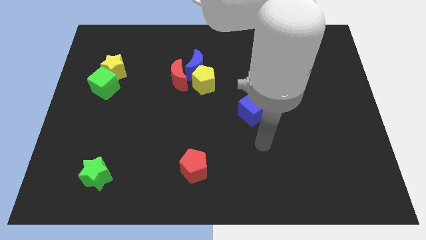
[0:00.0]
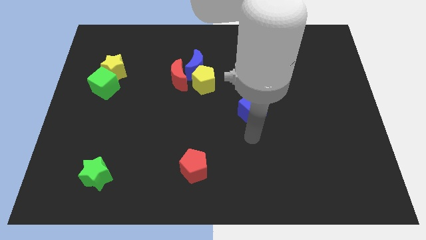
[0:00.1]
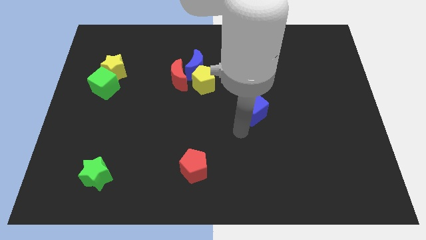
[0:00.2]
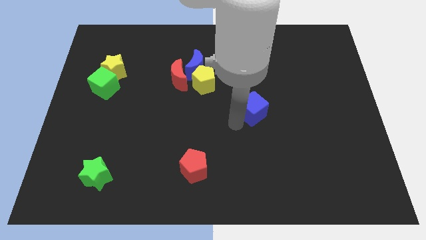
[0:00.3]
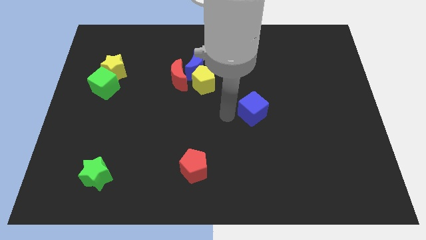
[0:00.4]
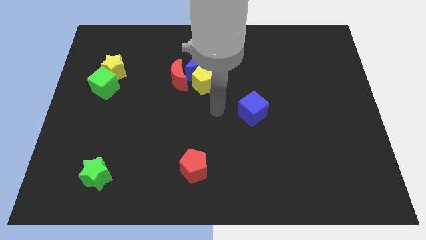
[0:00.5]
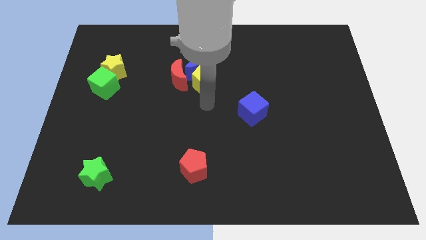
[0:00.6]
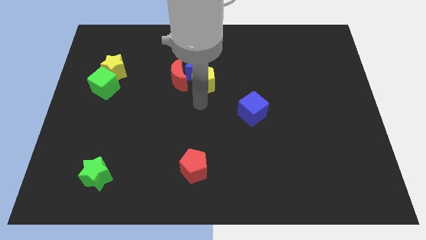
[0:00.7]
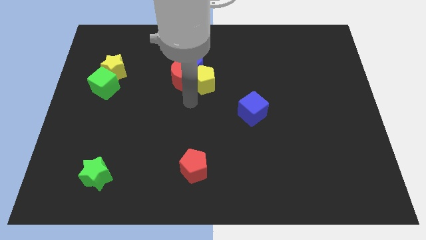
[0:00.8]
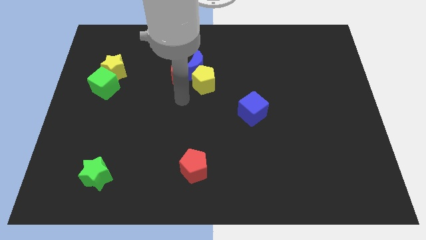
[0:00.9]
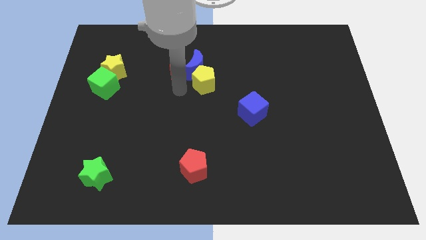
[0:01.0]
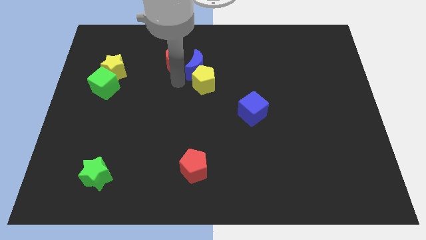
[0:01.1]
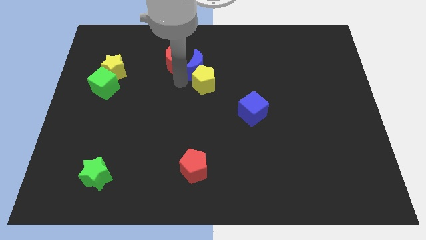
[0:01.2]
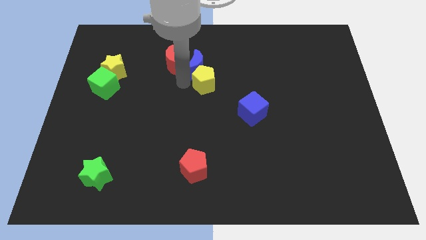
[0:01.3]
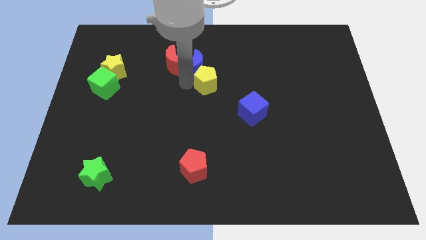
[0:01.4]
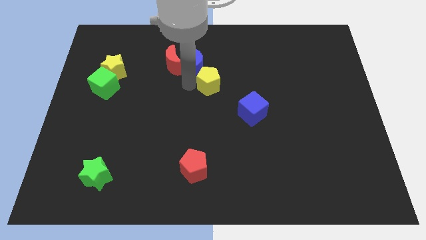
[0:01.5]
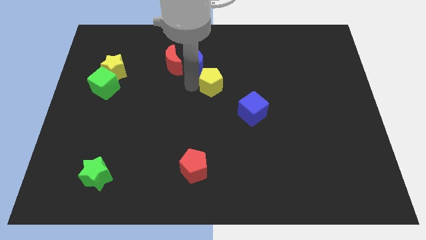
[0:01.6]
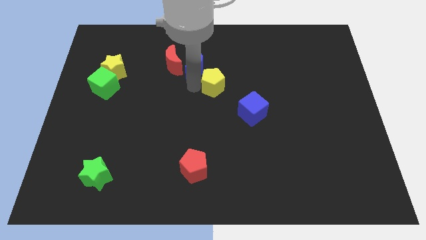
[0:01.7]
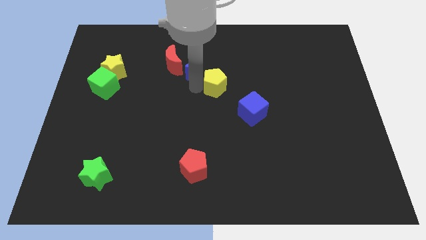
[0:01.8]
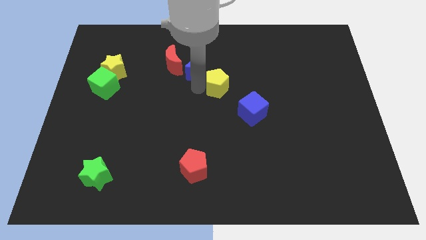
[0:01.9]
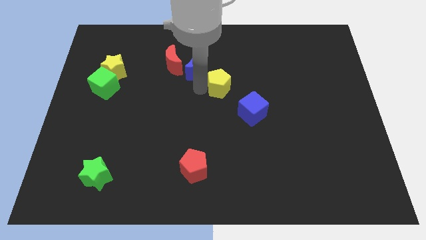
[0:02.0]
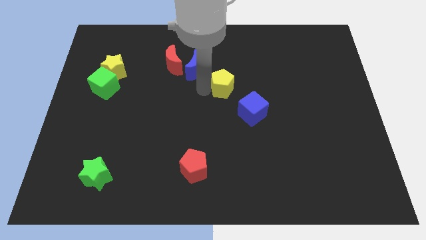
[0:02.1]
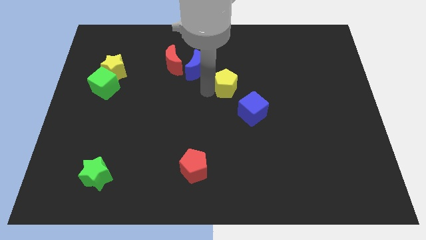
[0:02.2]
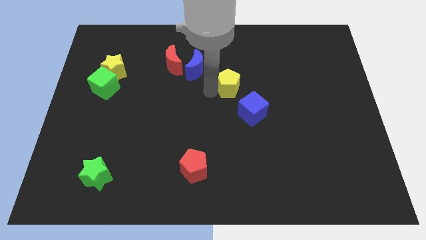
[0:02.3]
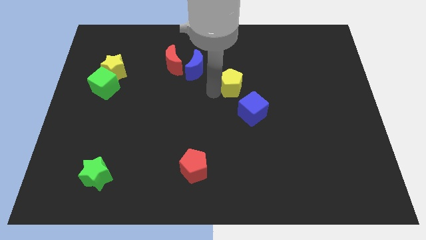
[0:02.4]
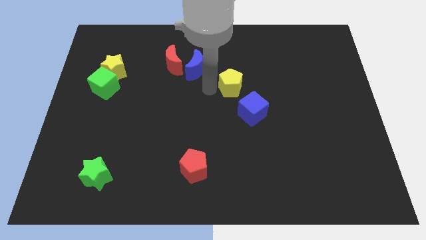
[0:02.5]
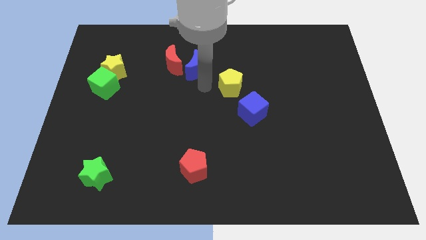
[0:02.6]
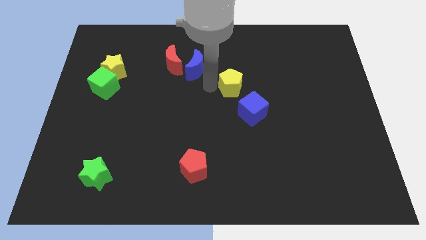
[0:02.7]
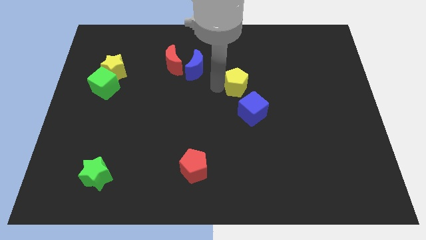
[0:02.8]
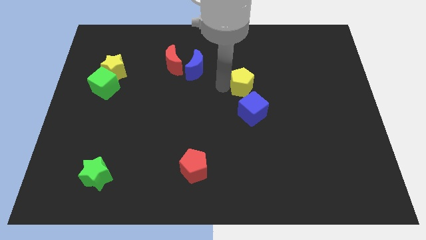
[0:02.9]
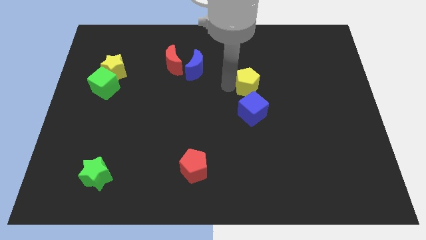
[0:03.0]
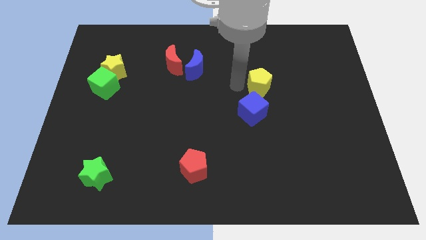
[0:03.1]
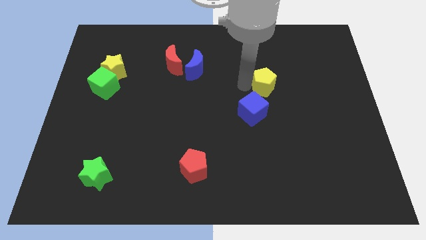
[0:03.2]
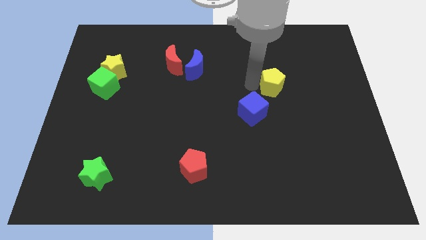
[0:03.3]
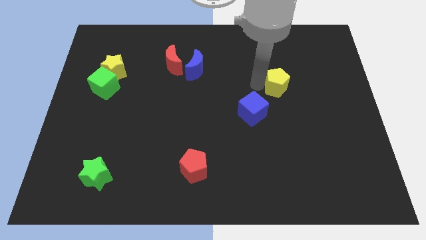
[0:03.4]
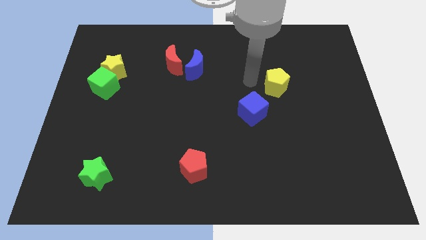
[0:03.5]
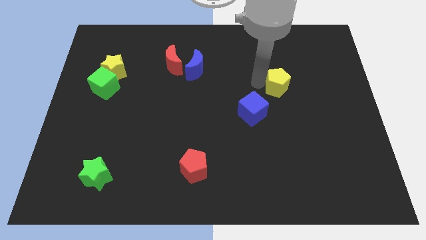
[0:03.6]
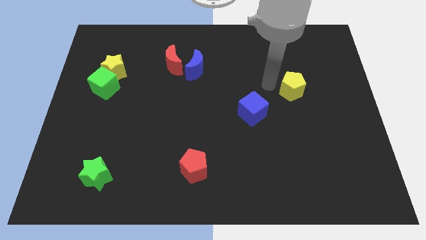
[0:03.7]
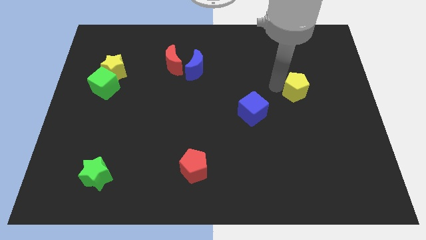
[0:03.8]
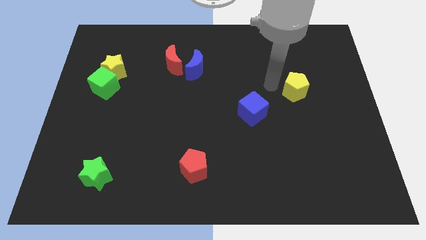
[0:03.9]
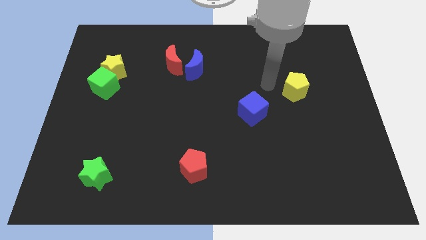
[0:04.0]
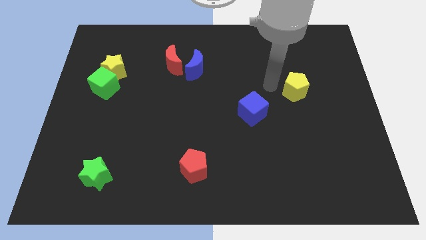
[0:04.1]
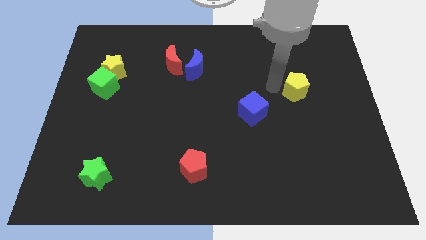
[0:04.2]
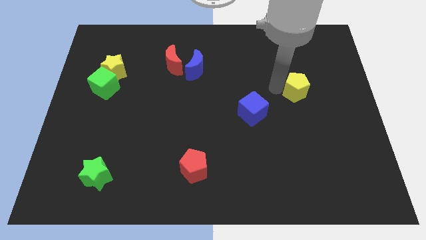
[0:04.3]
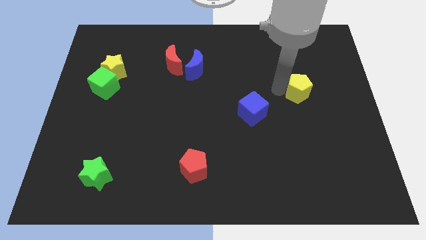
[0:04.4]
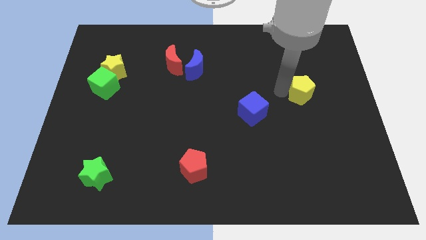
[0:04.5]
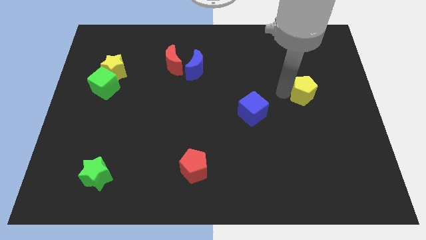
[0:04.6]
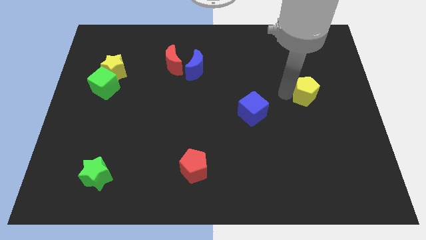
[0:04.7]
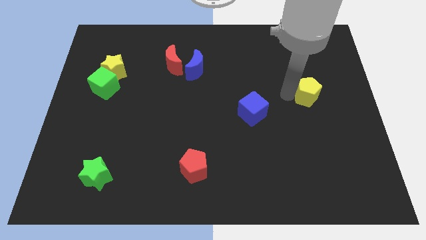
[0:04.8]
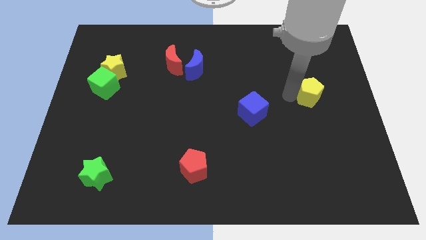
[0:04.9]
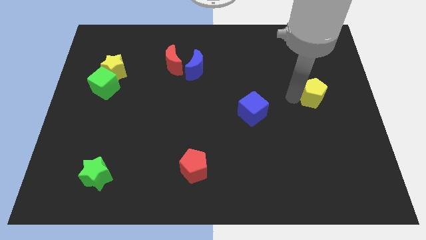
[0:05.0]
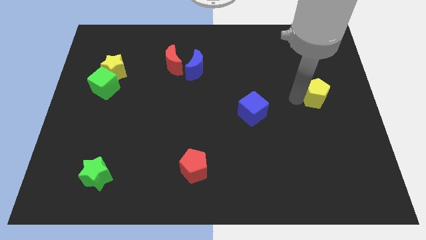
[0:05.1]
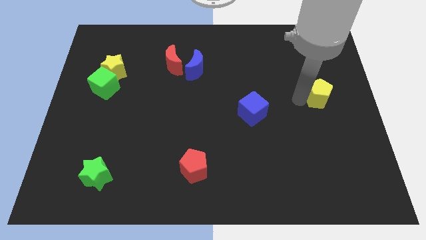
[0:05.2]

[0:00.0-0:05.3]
move the yellow pentagon to the center right
